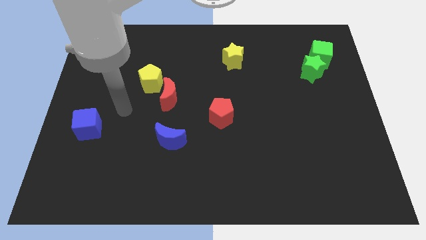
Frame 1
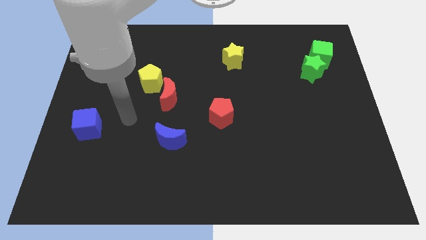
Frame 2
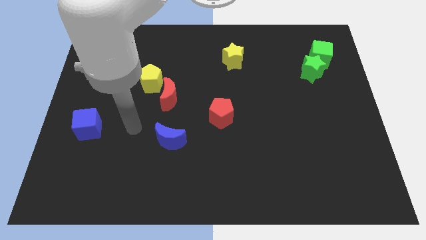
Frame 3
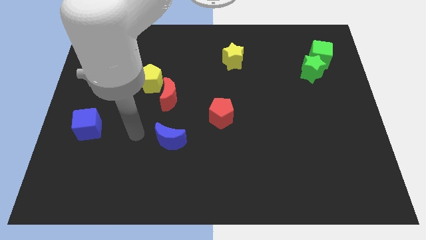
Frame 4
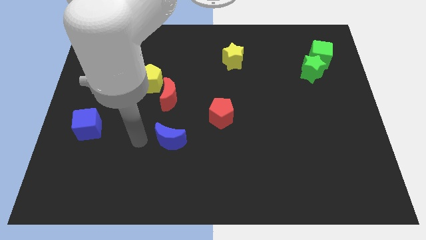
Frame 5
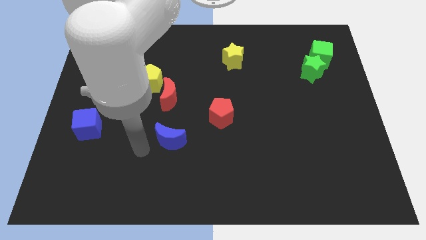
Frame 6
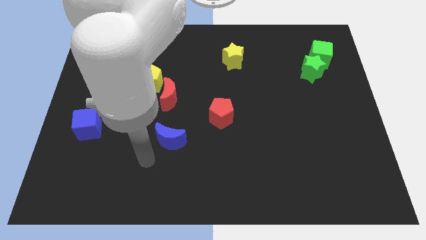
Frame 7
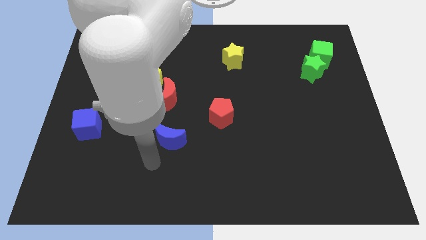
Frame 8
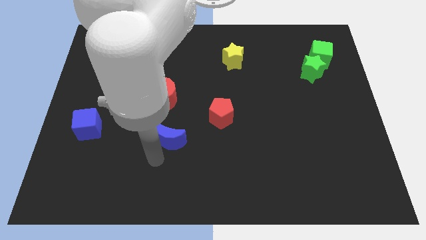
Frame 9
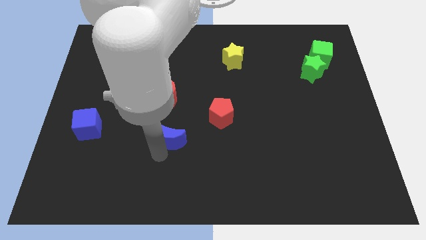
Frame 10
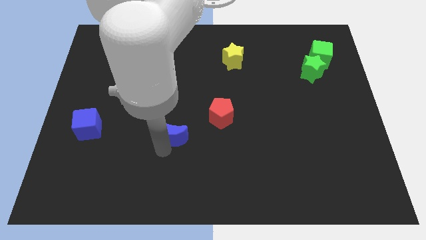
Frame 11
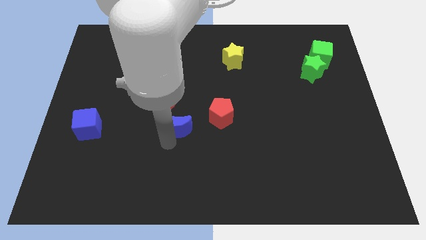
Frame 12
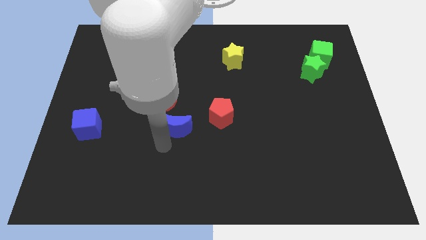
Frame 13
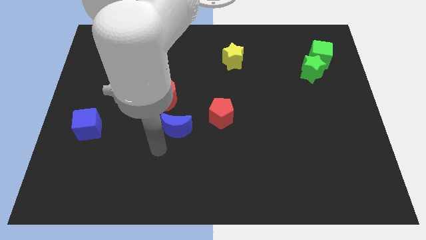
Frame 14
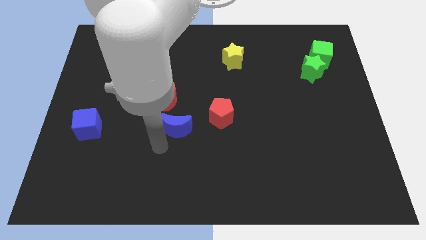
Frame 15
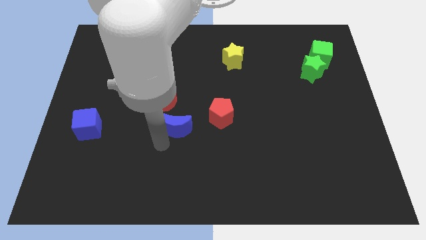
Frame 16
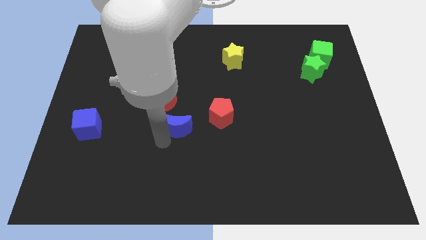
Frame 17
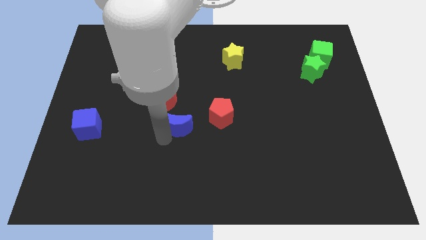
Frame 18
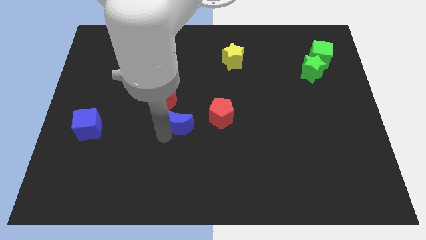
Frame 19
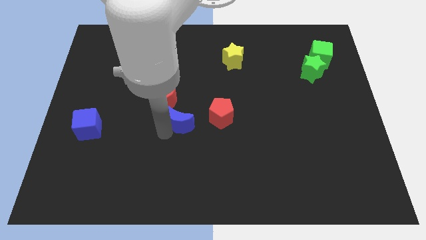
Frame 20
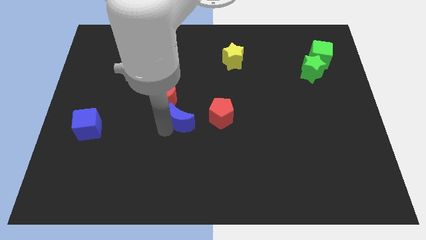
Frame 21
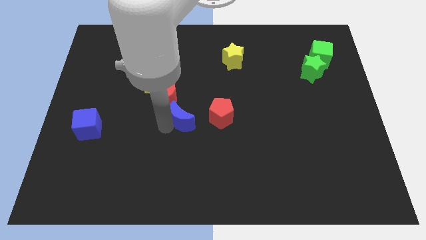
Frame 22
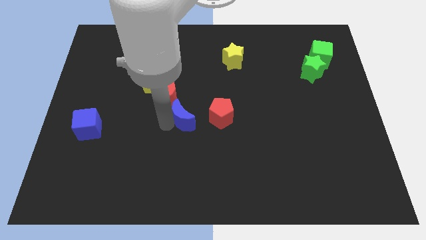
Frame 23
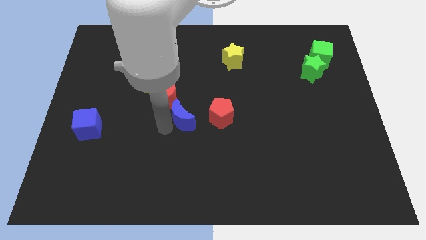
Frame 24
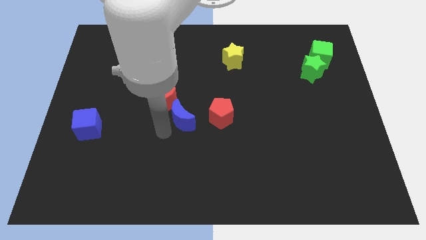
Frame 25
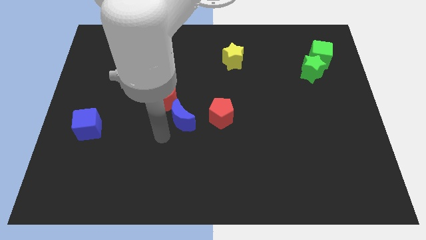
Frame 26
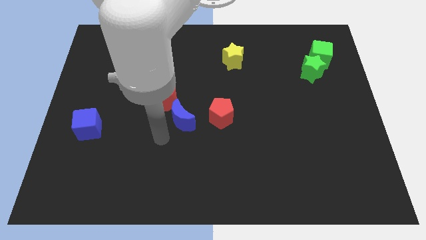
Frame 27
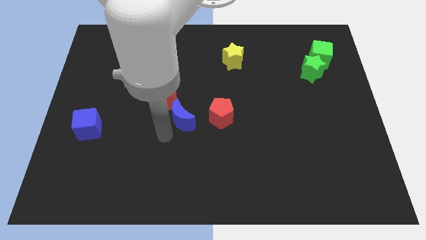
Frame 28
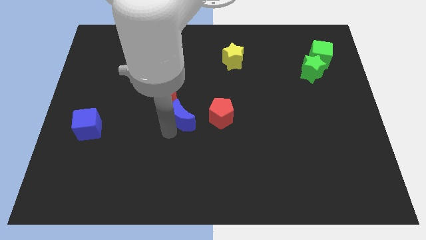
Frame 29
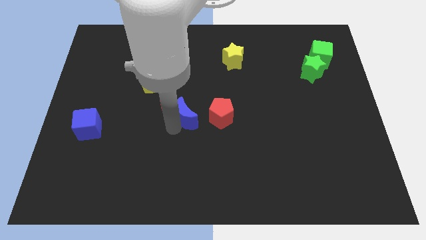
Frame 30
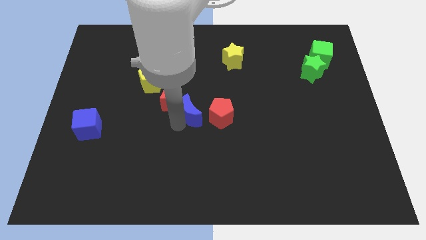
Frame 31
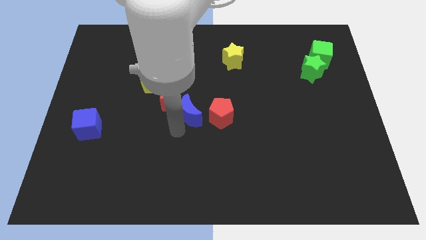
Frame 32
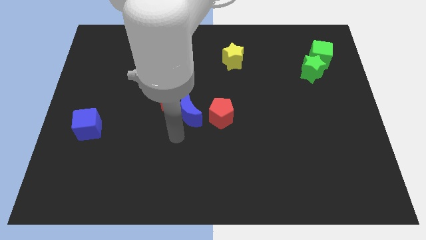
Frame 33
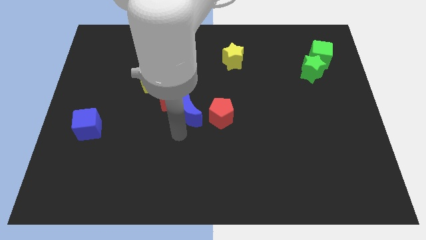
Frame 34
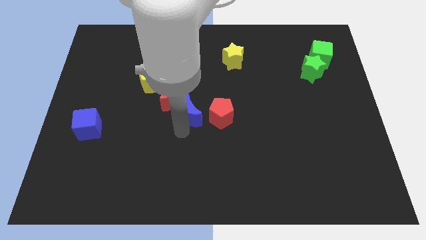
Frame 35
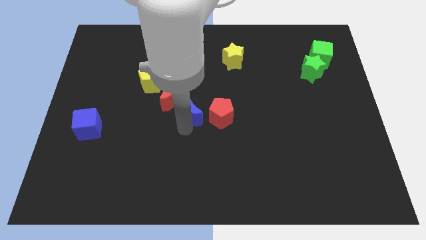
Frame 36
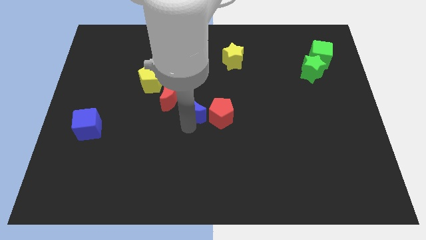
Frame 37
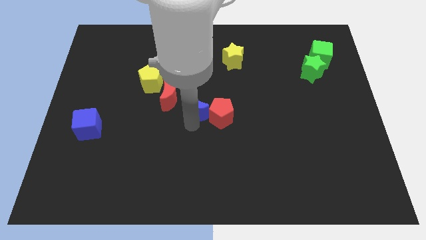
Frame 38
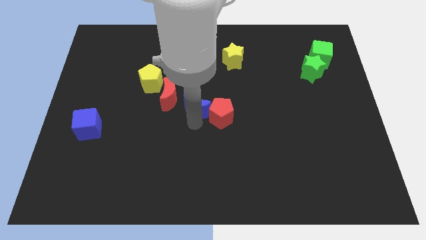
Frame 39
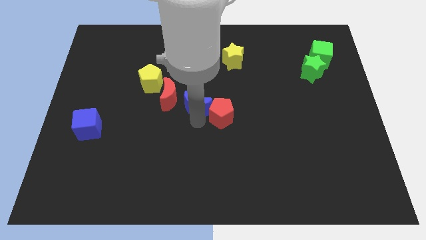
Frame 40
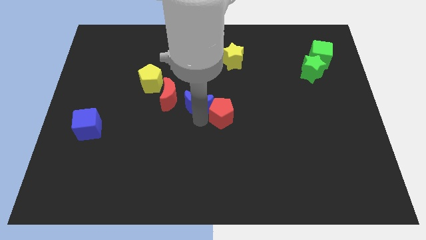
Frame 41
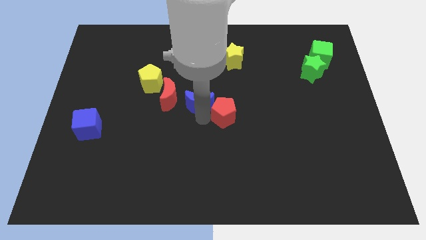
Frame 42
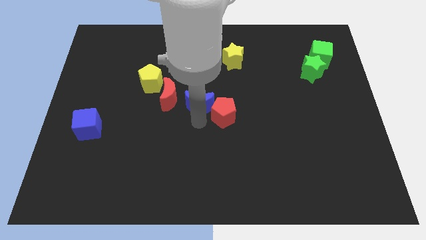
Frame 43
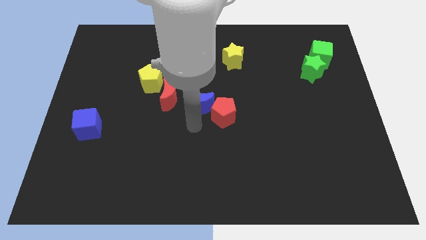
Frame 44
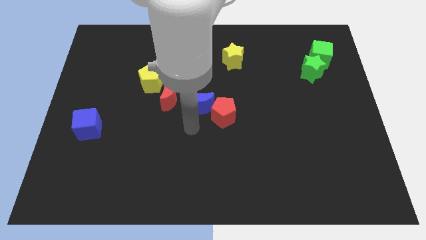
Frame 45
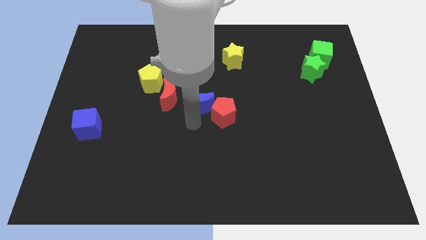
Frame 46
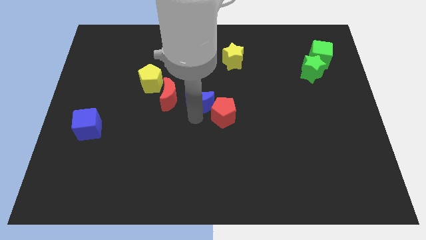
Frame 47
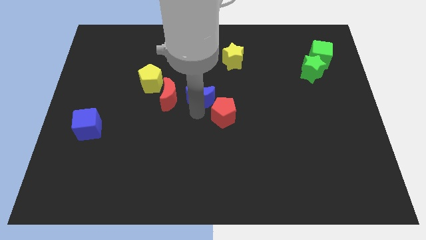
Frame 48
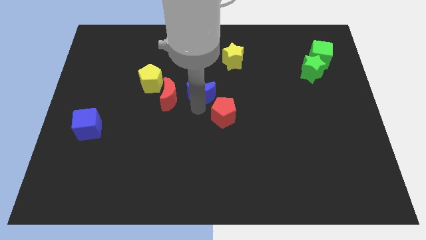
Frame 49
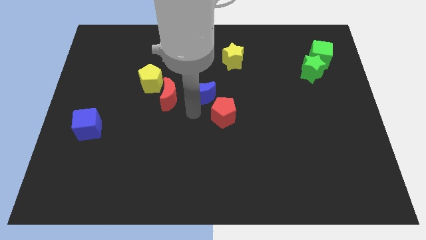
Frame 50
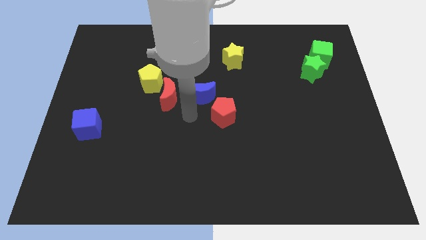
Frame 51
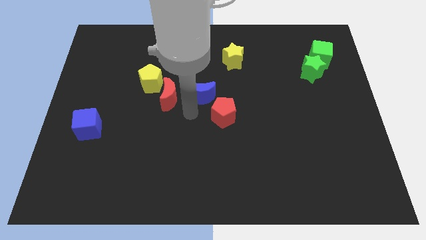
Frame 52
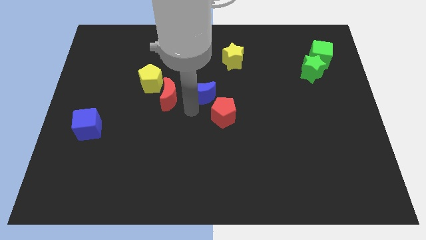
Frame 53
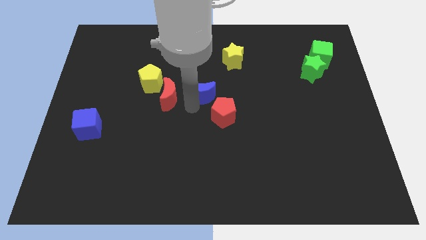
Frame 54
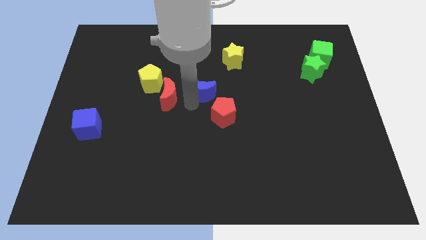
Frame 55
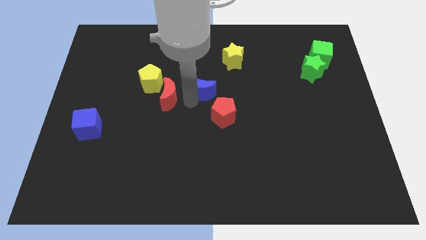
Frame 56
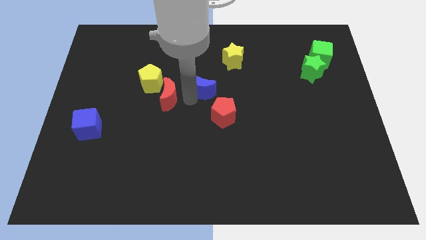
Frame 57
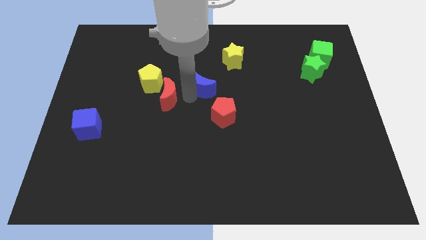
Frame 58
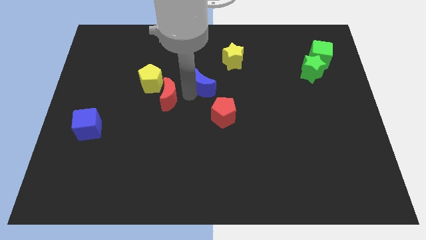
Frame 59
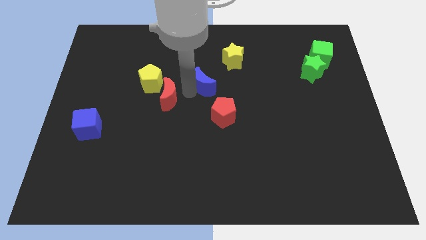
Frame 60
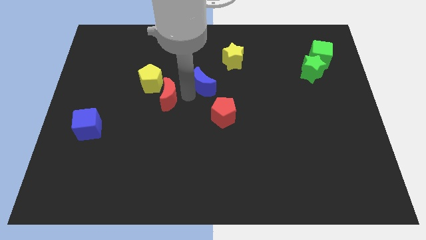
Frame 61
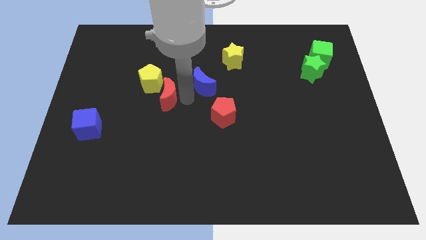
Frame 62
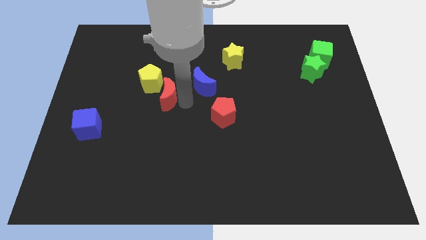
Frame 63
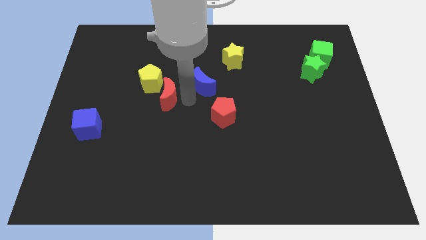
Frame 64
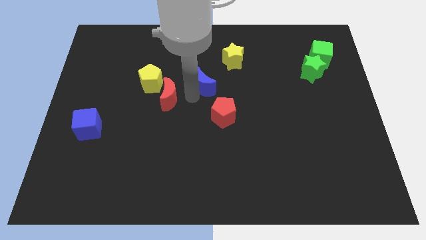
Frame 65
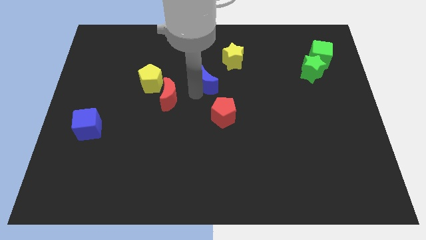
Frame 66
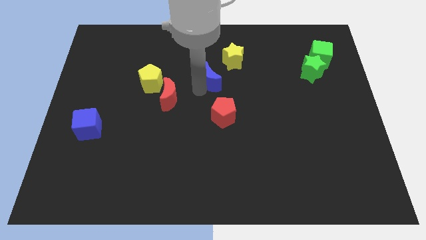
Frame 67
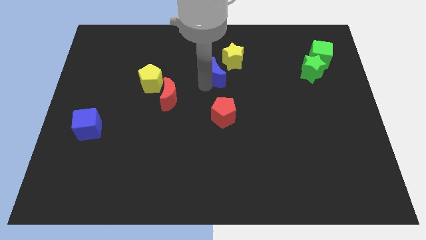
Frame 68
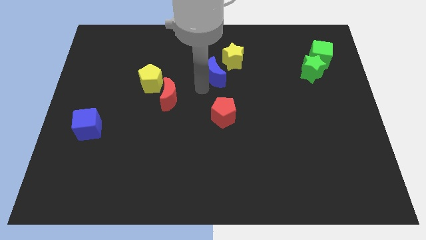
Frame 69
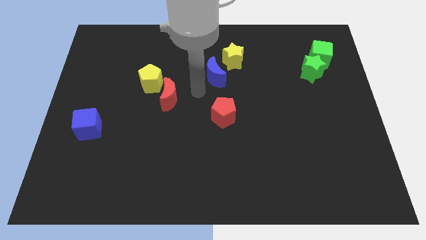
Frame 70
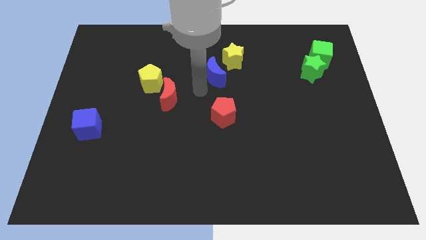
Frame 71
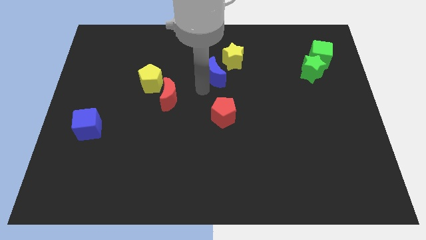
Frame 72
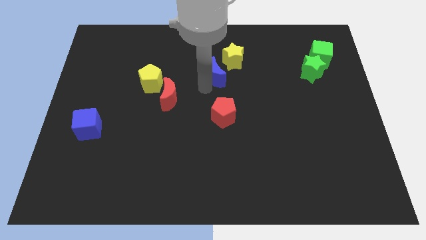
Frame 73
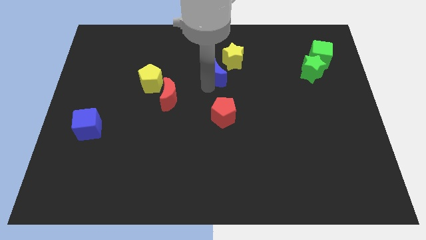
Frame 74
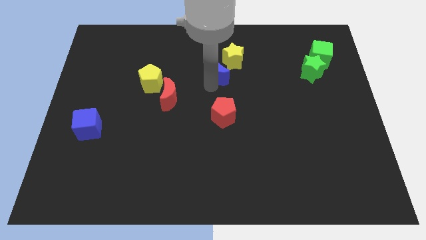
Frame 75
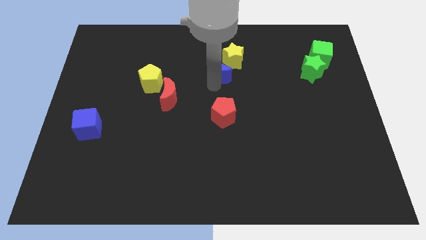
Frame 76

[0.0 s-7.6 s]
move the blue moon to the yellow star

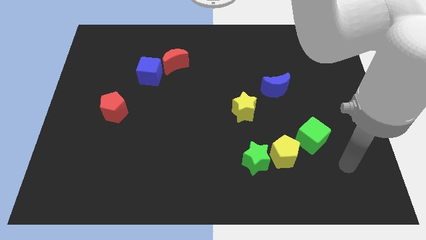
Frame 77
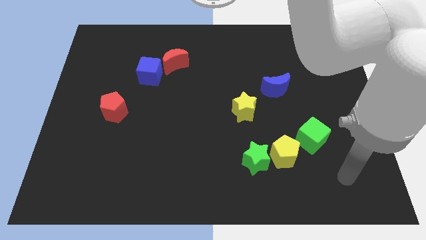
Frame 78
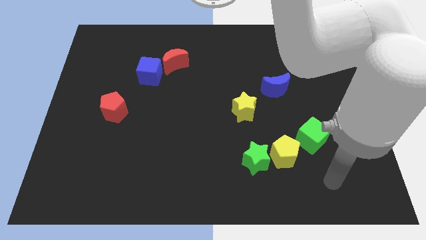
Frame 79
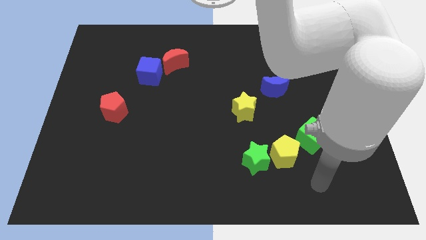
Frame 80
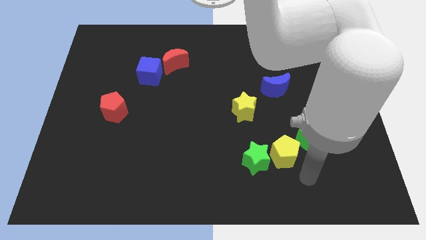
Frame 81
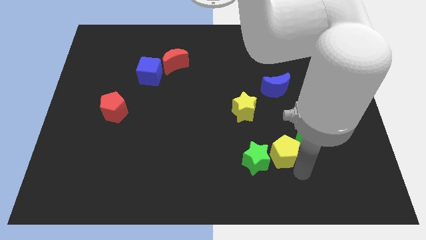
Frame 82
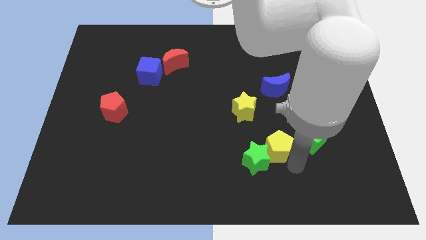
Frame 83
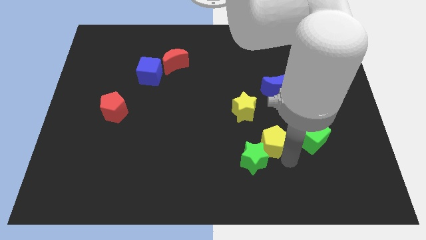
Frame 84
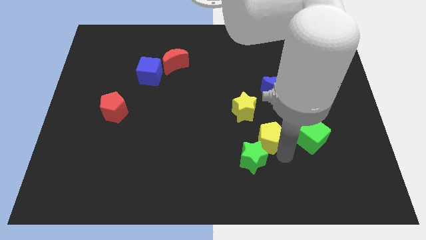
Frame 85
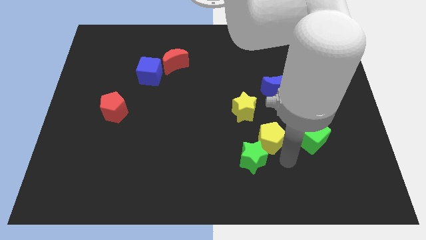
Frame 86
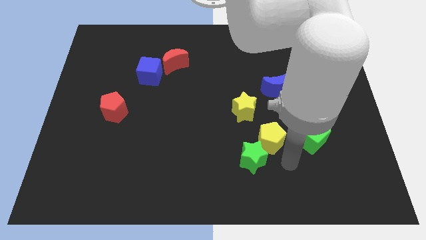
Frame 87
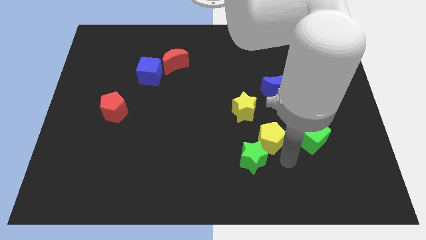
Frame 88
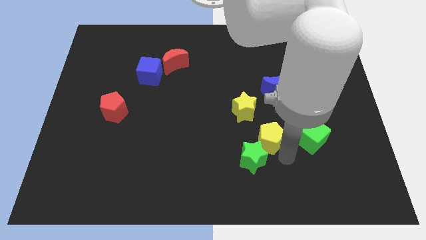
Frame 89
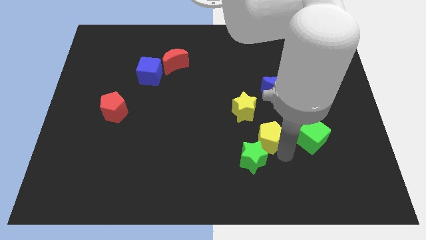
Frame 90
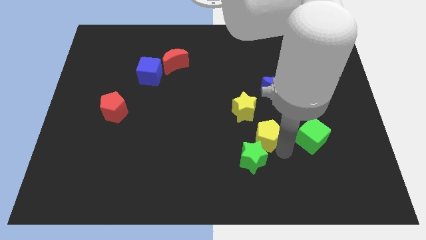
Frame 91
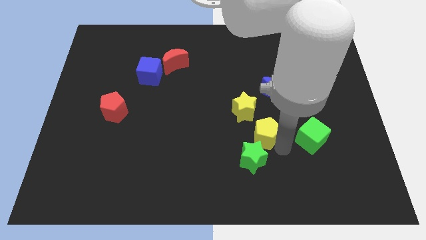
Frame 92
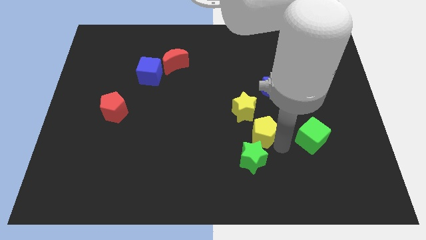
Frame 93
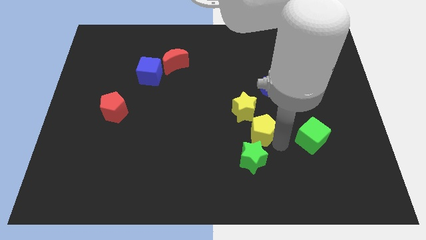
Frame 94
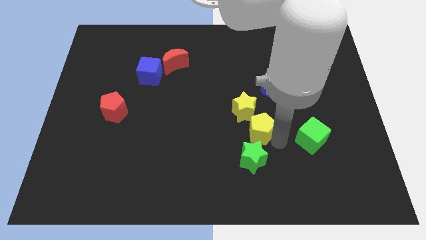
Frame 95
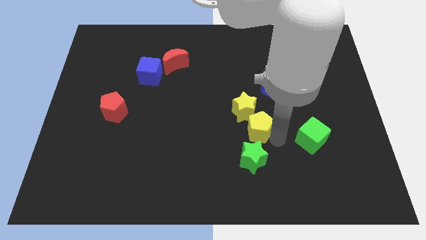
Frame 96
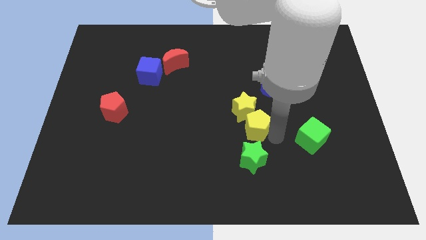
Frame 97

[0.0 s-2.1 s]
put the yellow pentagon next to the yellow star
